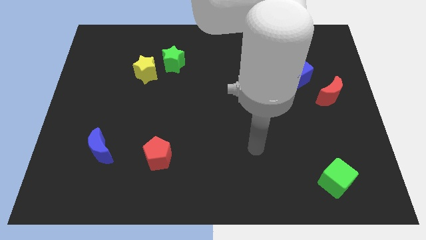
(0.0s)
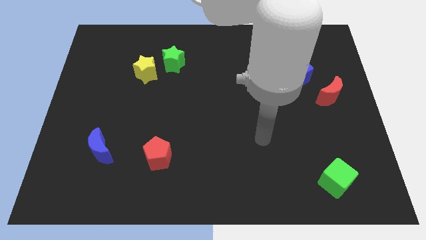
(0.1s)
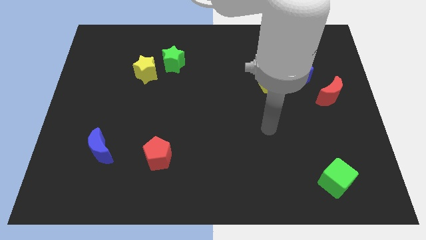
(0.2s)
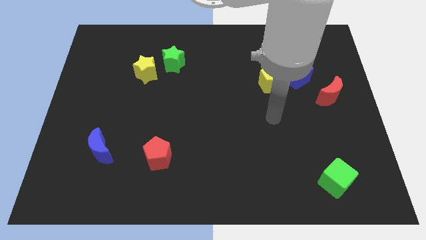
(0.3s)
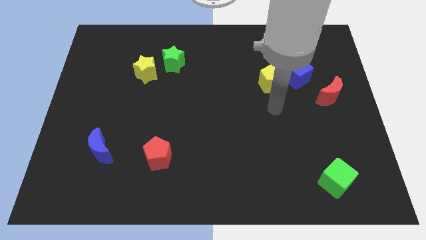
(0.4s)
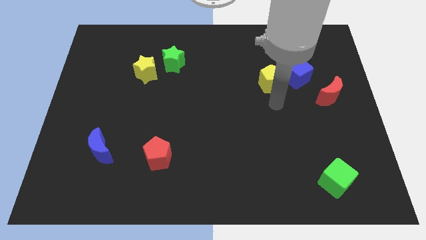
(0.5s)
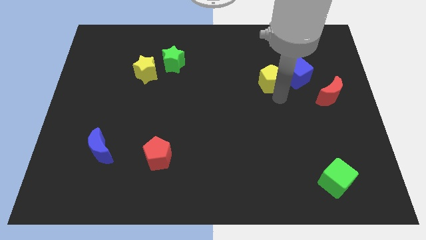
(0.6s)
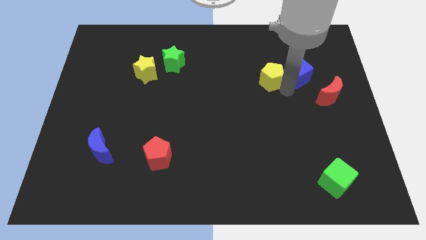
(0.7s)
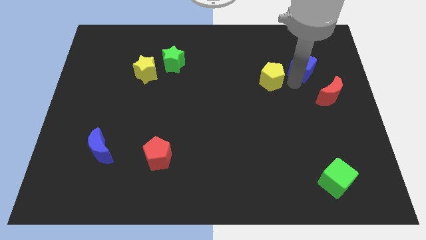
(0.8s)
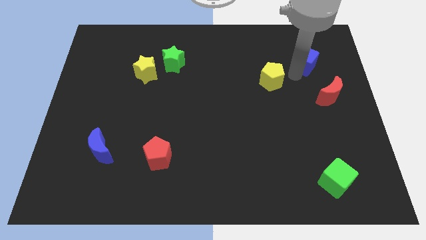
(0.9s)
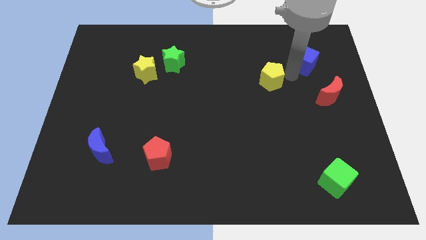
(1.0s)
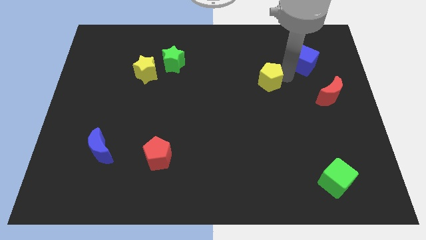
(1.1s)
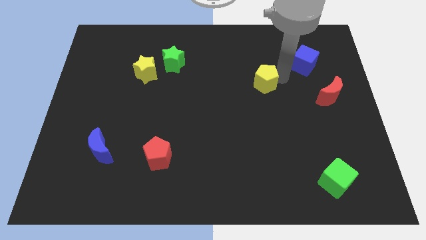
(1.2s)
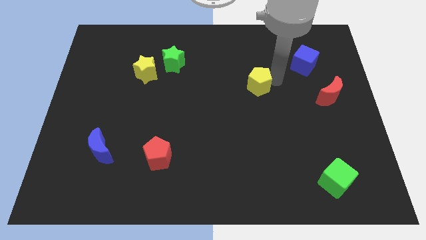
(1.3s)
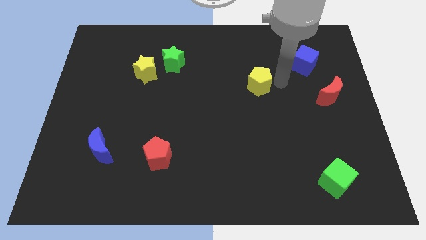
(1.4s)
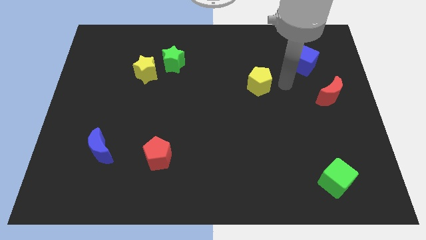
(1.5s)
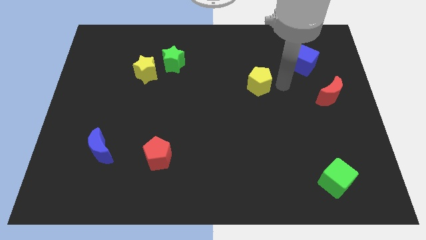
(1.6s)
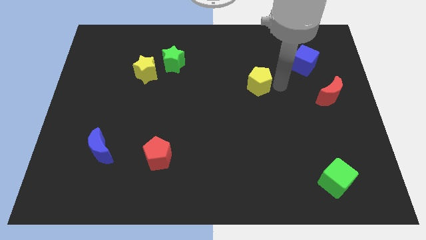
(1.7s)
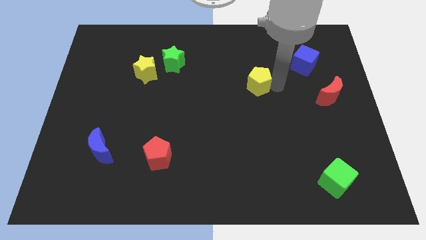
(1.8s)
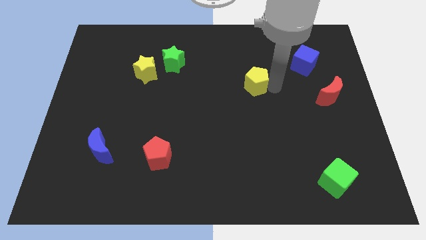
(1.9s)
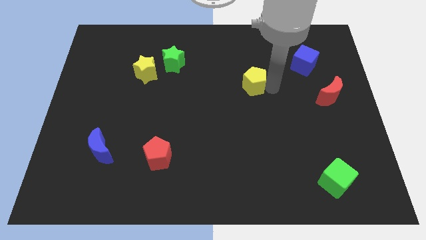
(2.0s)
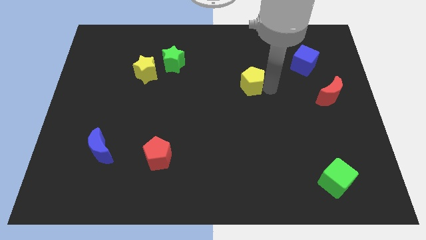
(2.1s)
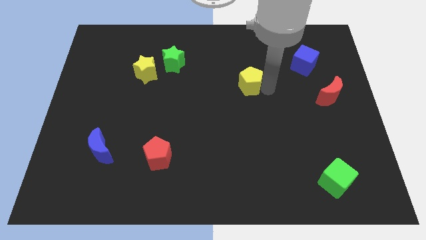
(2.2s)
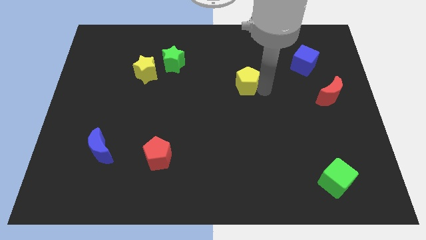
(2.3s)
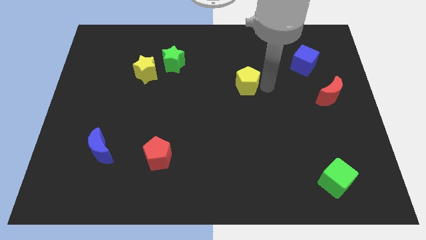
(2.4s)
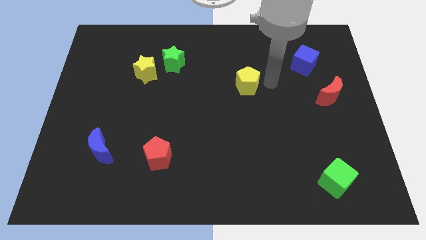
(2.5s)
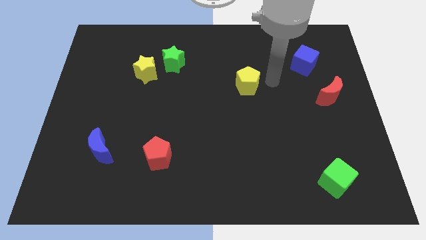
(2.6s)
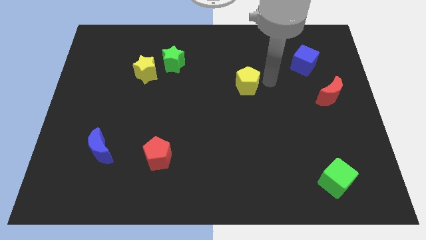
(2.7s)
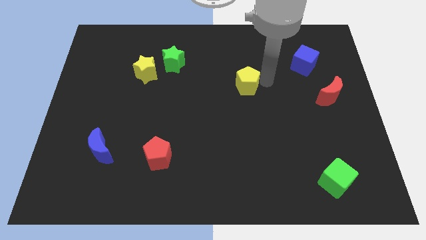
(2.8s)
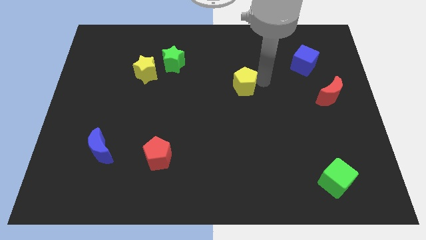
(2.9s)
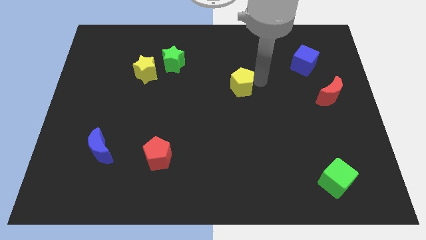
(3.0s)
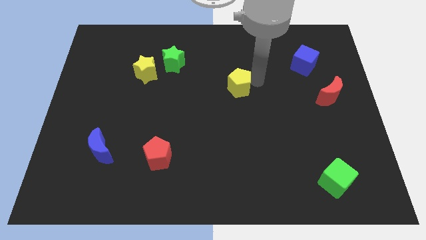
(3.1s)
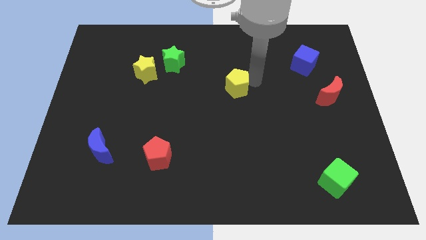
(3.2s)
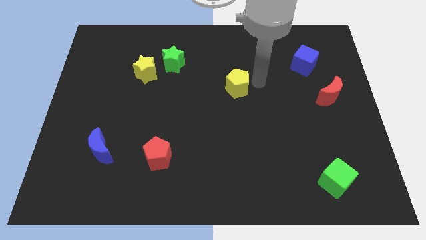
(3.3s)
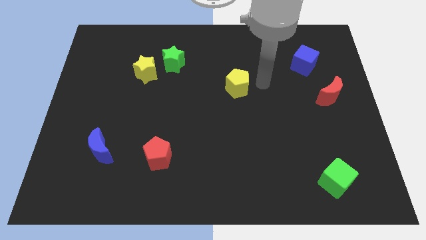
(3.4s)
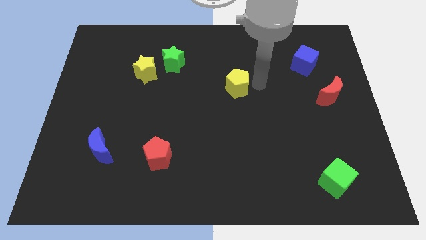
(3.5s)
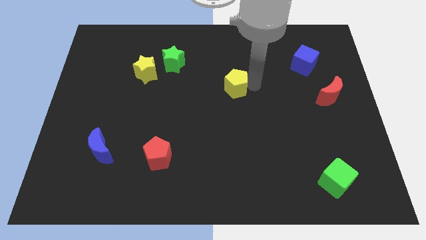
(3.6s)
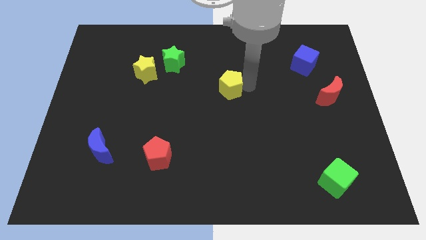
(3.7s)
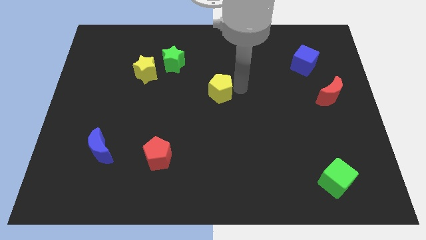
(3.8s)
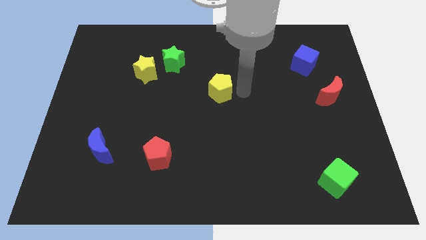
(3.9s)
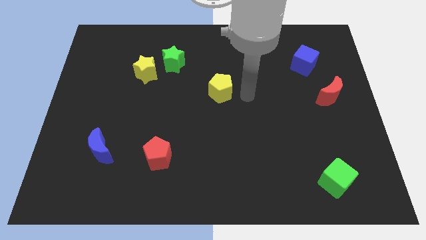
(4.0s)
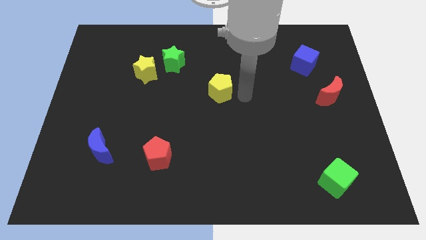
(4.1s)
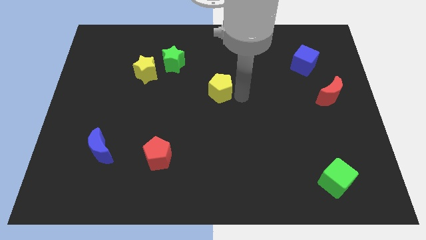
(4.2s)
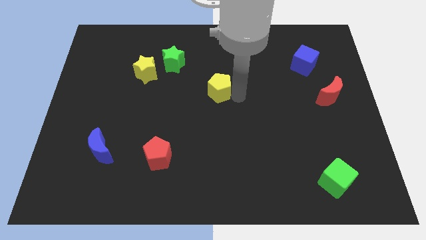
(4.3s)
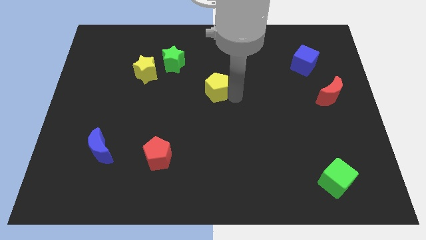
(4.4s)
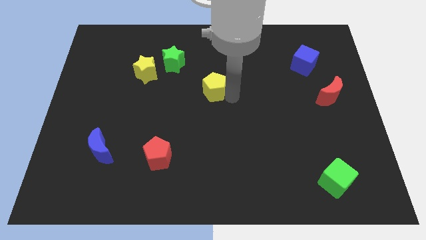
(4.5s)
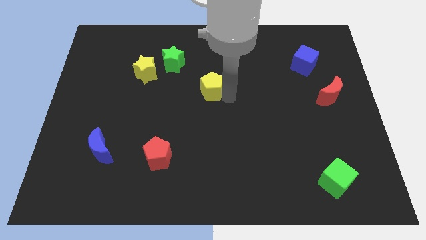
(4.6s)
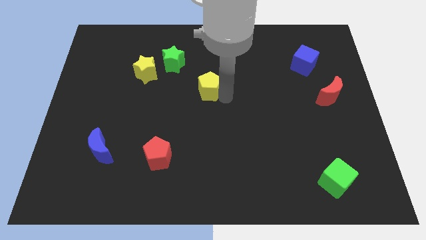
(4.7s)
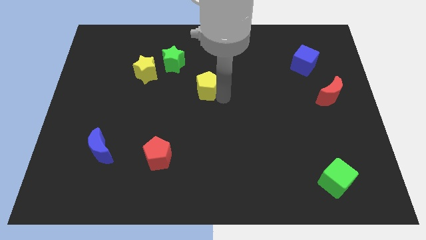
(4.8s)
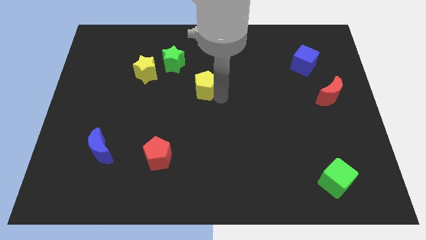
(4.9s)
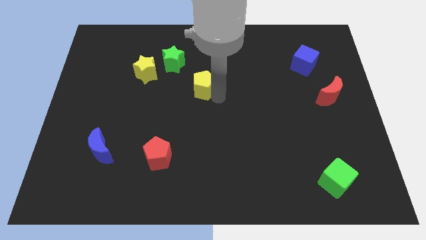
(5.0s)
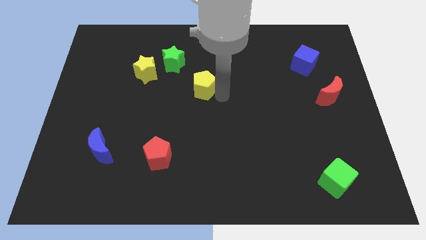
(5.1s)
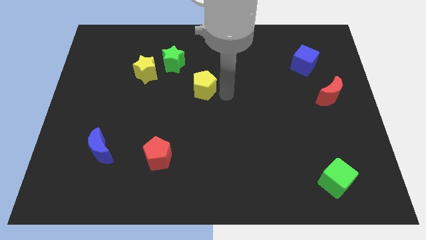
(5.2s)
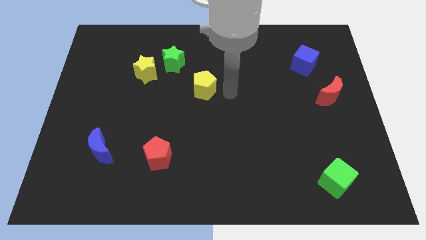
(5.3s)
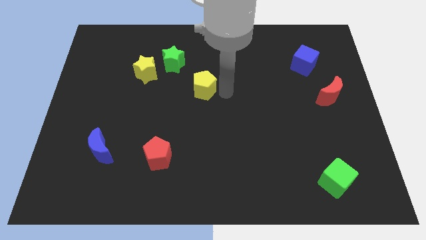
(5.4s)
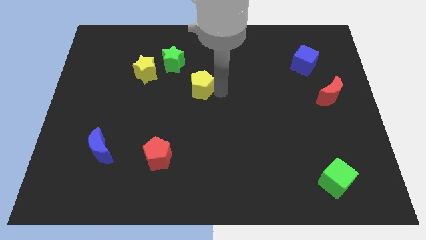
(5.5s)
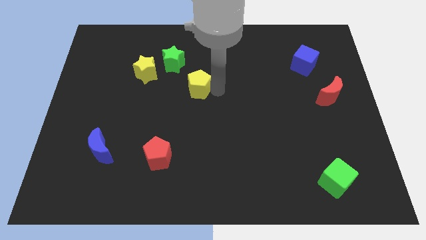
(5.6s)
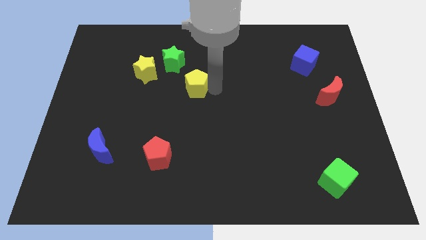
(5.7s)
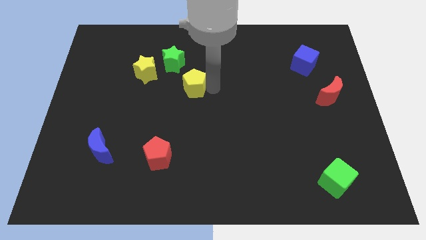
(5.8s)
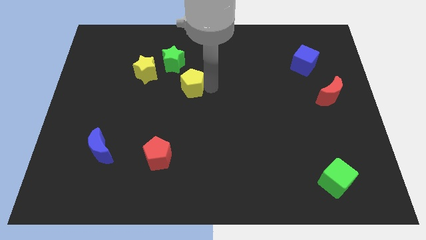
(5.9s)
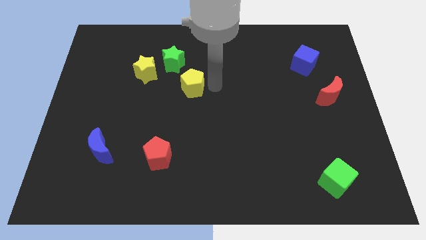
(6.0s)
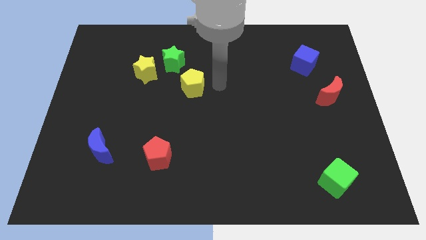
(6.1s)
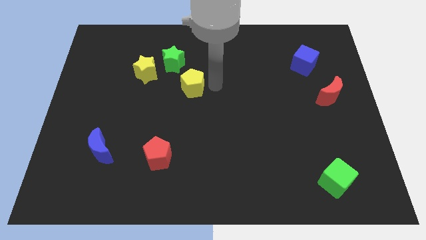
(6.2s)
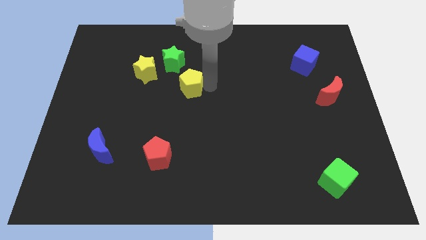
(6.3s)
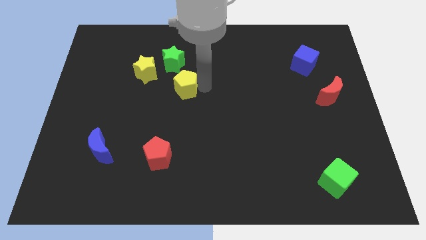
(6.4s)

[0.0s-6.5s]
push the yellow pentagon left

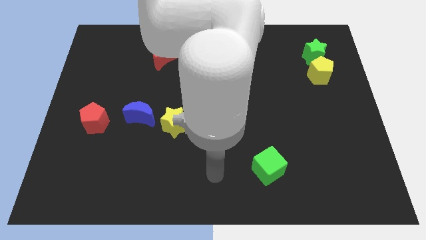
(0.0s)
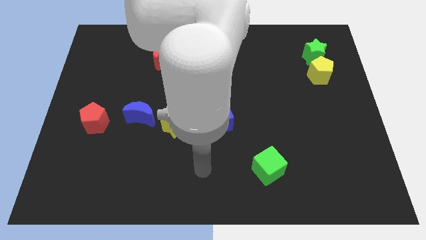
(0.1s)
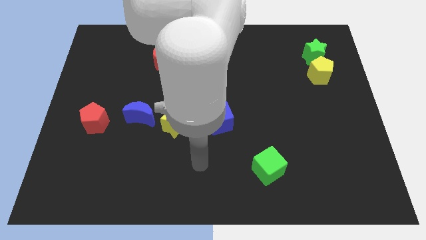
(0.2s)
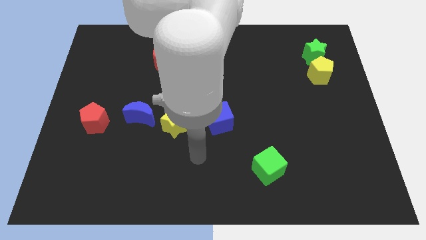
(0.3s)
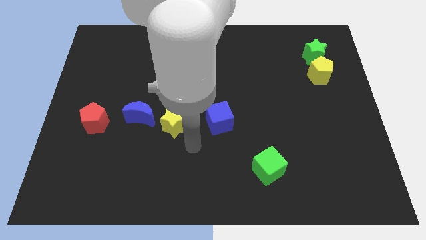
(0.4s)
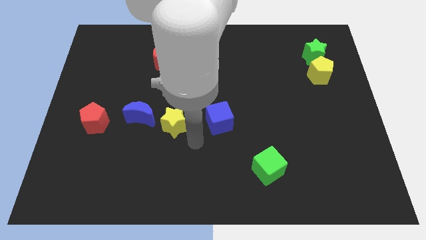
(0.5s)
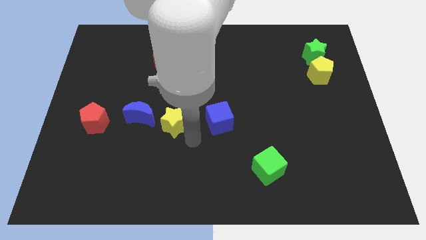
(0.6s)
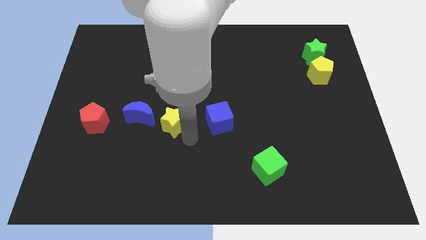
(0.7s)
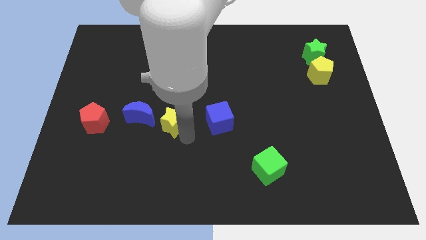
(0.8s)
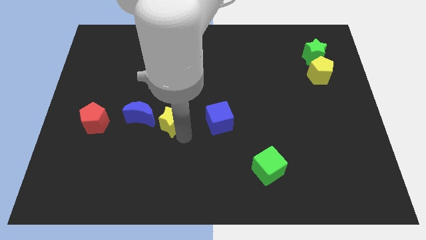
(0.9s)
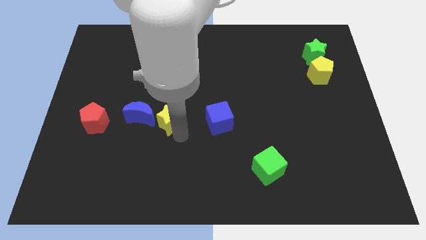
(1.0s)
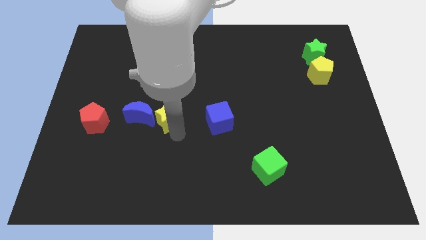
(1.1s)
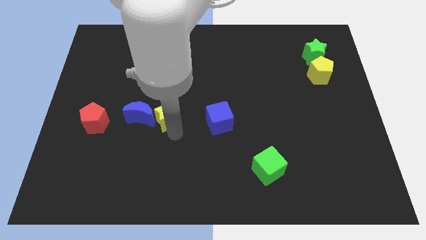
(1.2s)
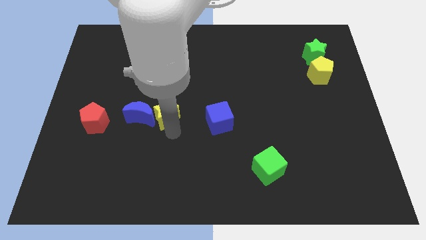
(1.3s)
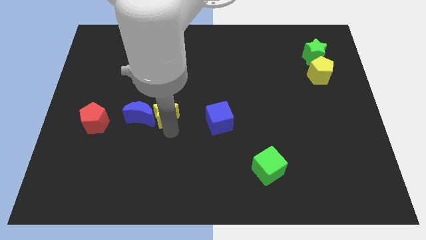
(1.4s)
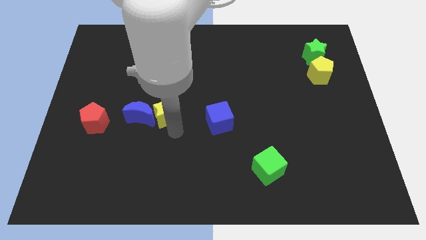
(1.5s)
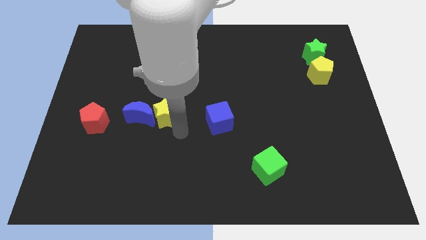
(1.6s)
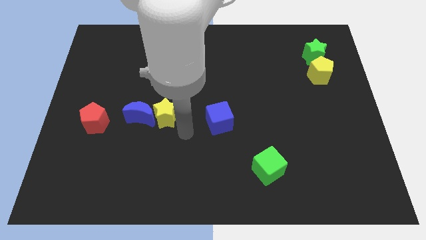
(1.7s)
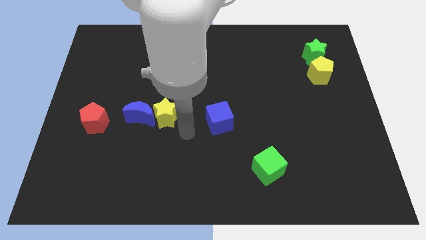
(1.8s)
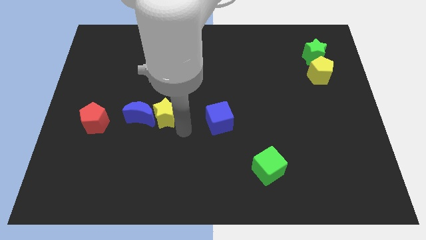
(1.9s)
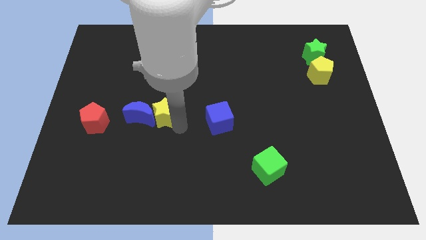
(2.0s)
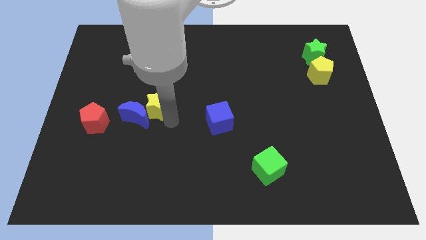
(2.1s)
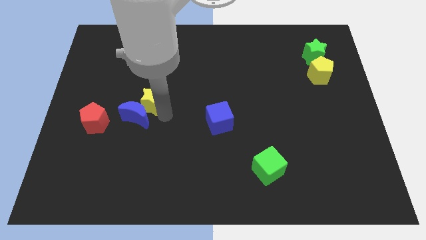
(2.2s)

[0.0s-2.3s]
push the yellow star upwards and to the left diagonally slightly
